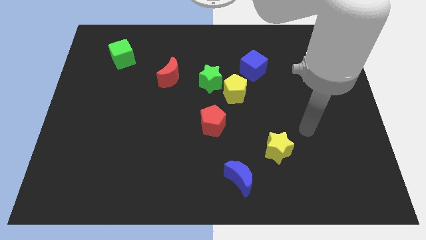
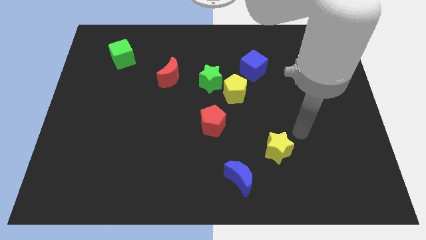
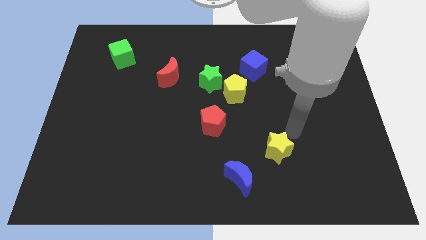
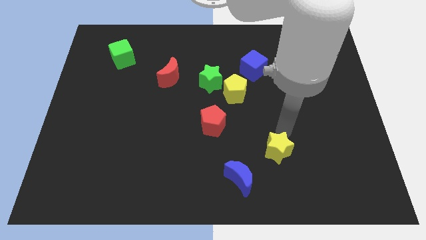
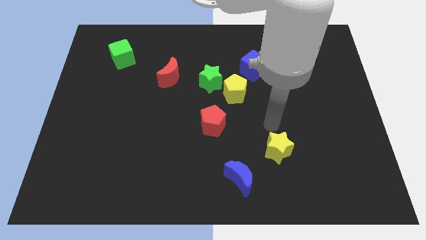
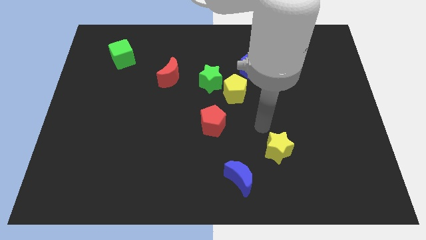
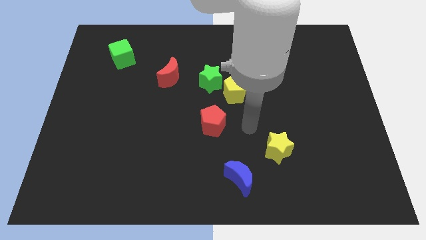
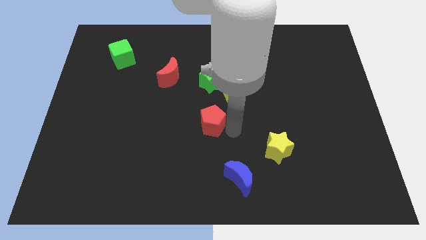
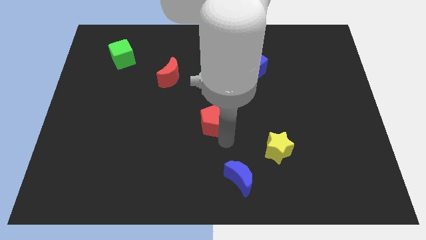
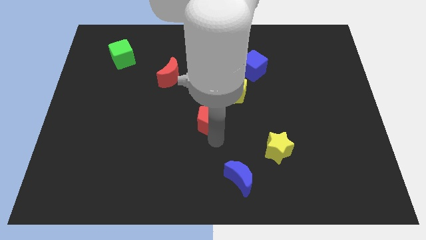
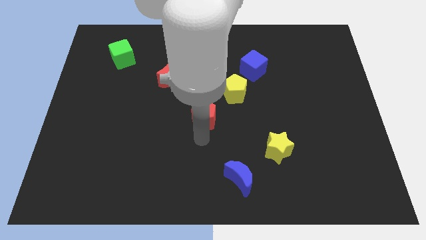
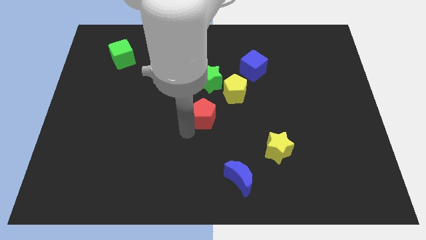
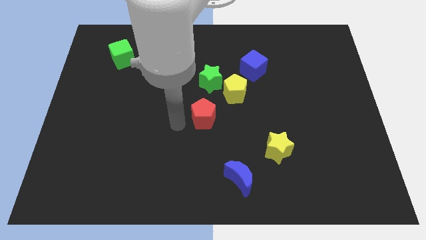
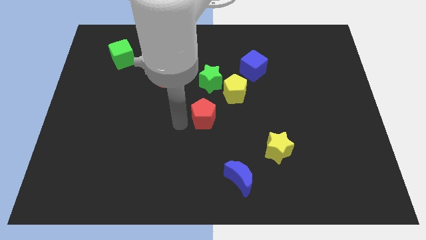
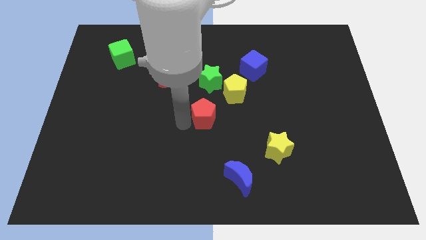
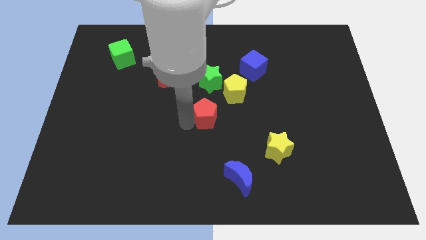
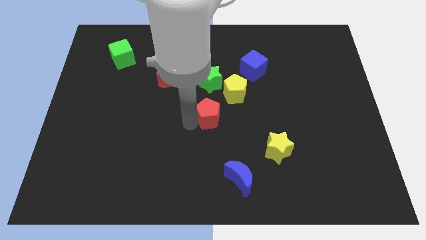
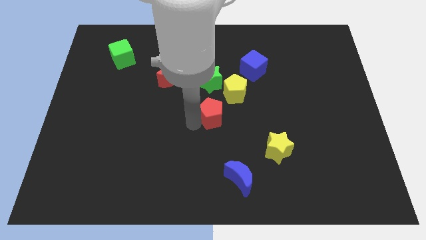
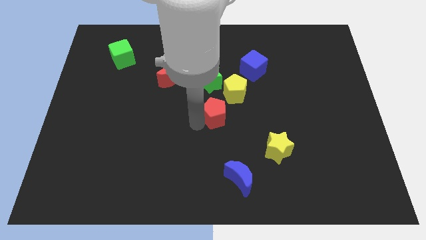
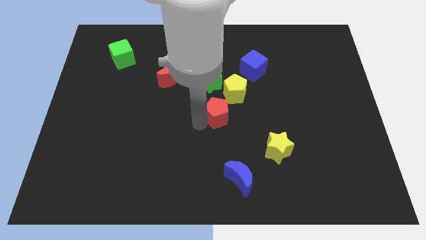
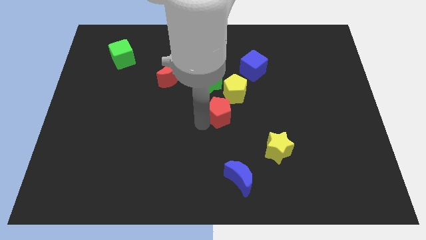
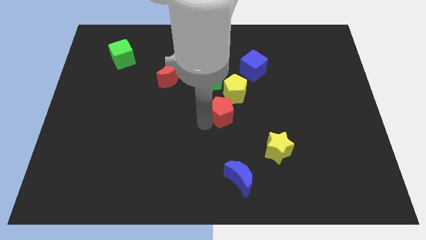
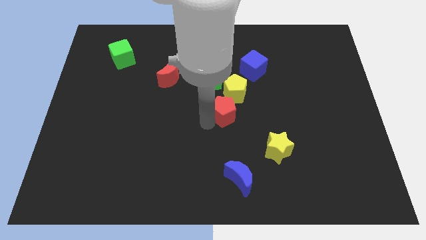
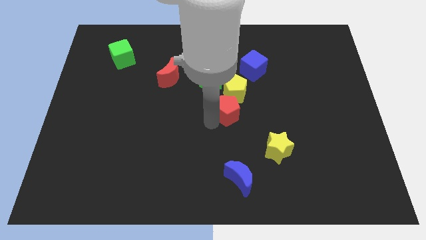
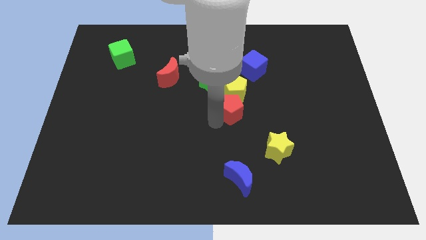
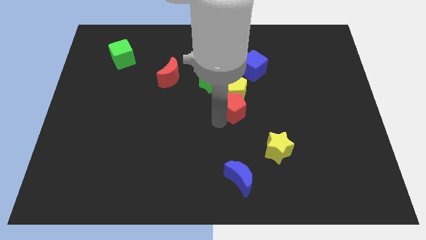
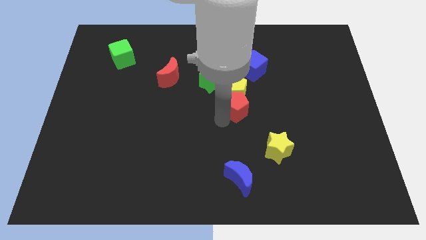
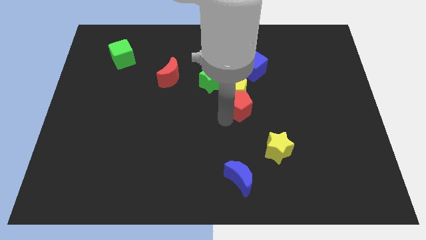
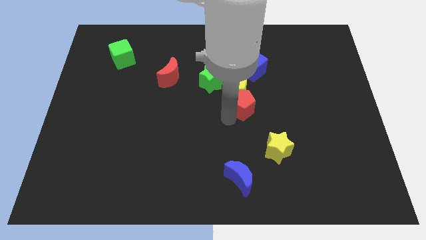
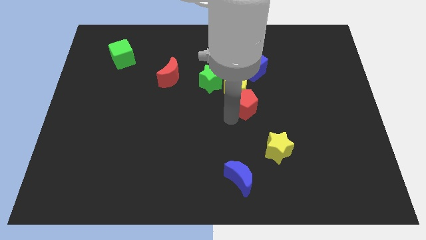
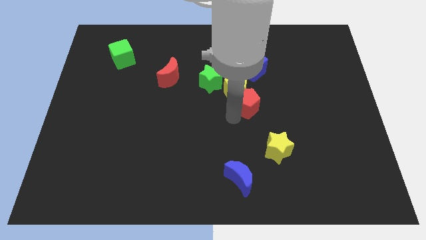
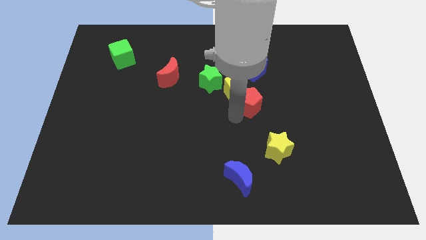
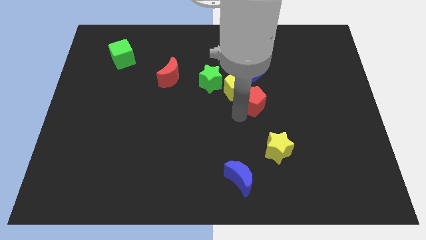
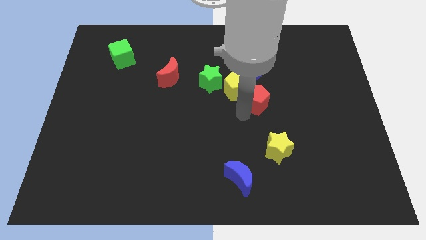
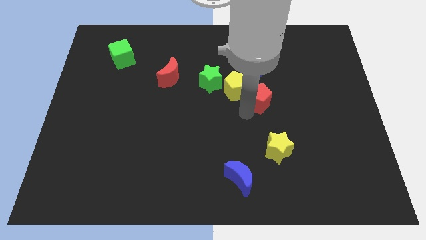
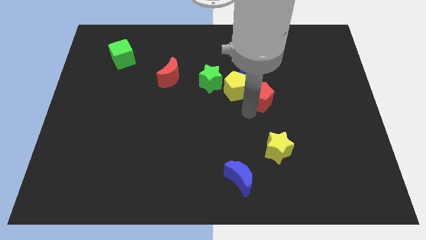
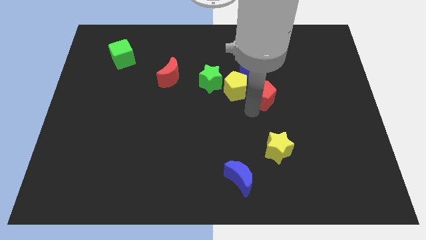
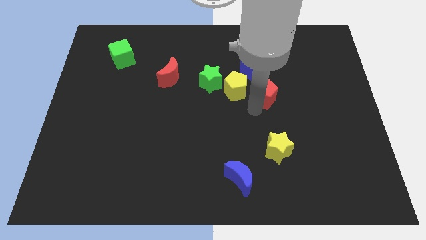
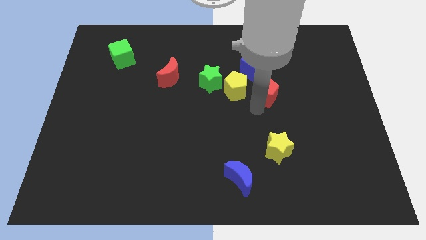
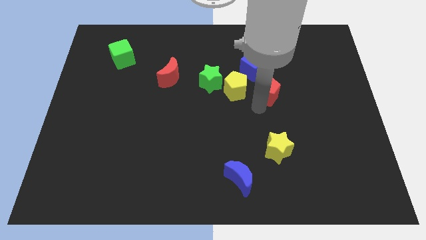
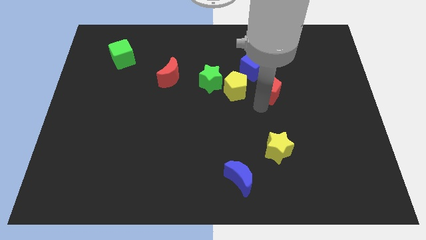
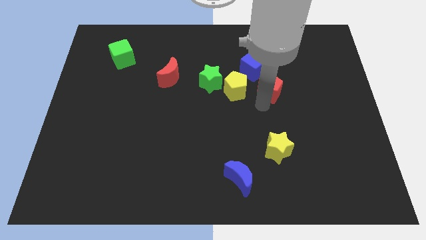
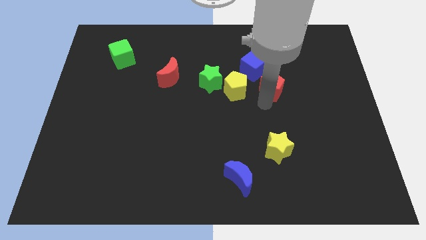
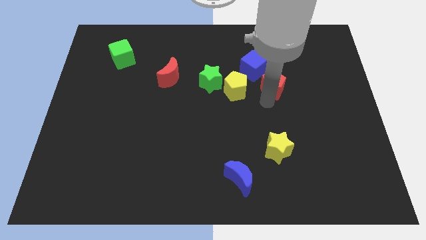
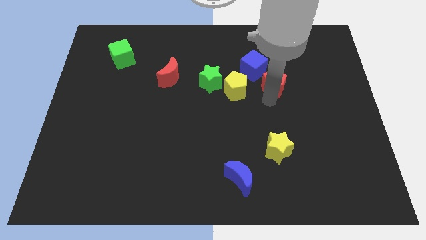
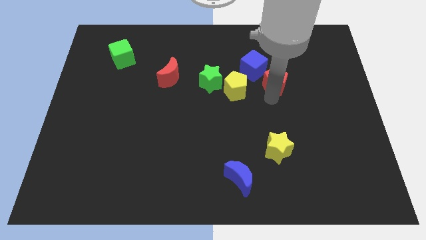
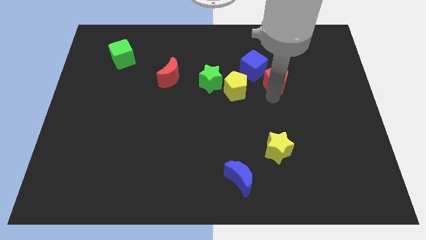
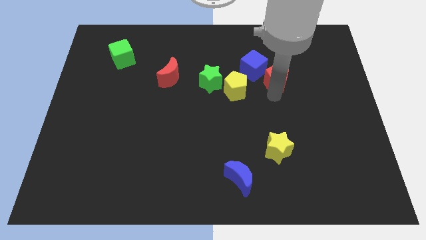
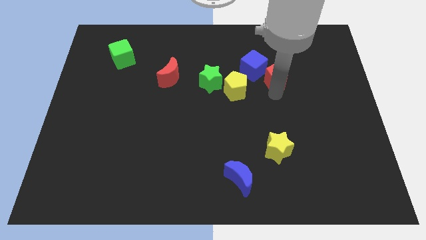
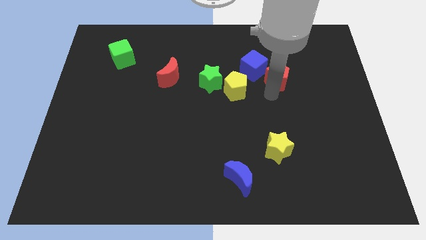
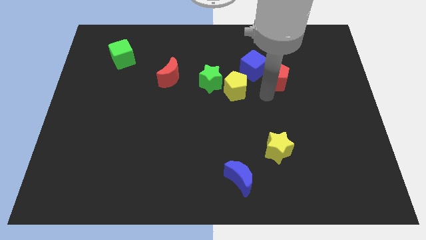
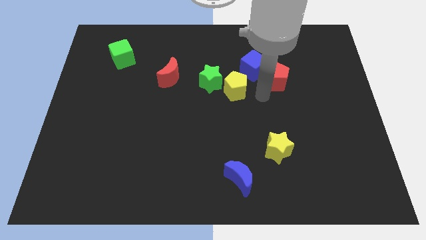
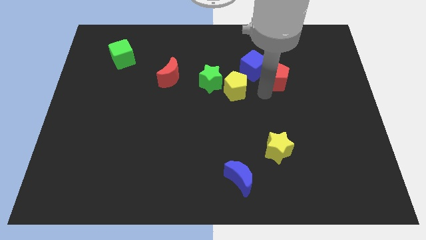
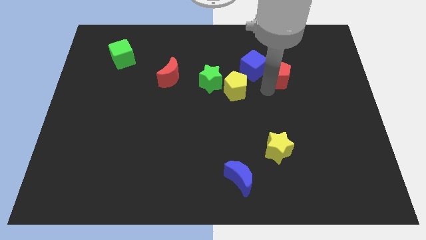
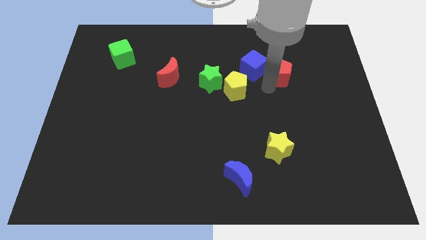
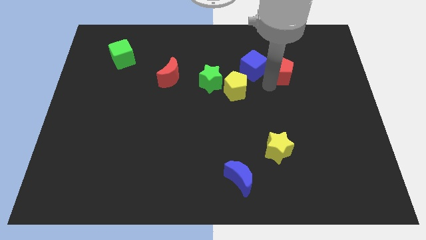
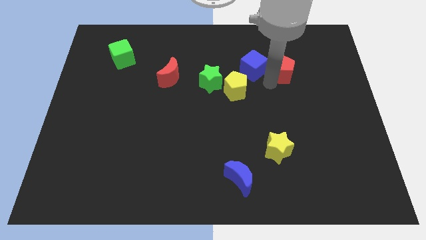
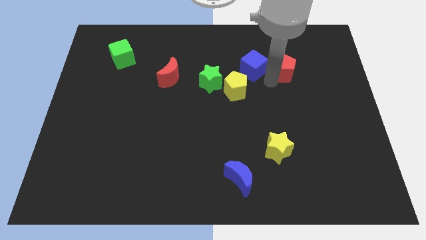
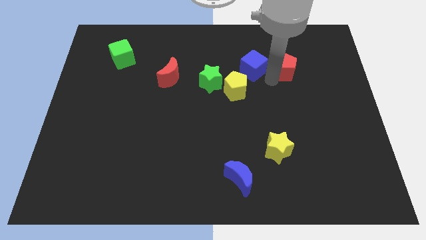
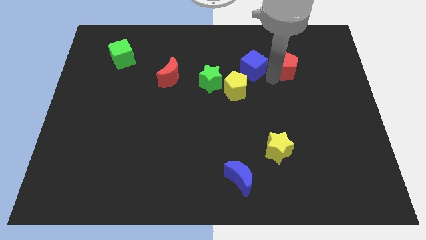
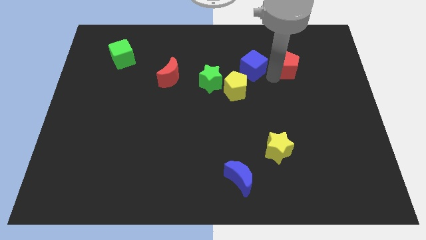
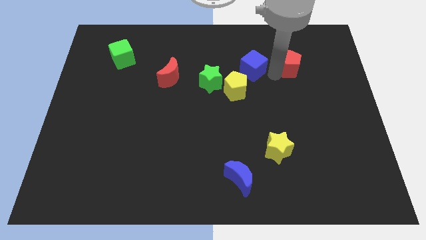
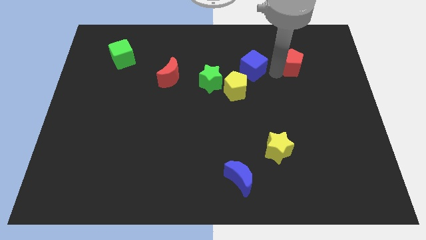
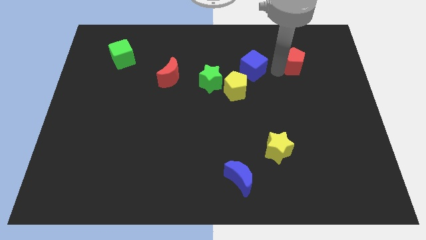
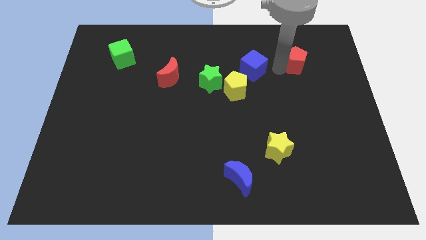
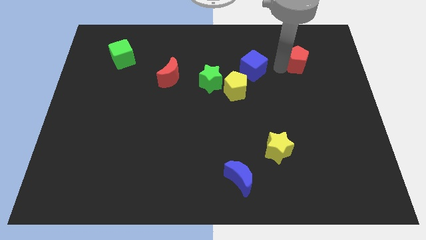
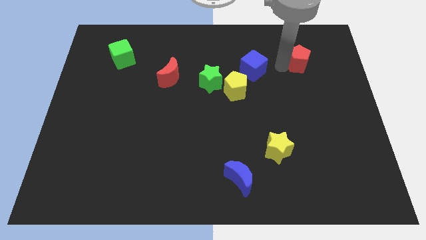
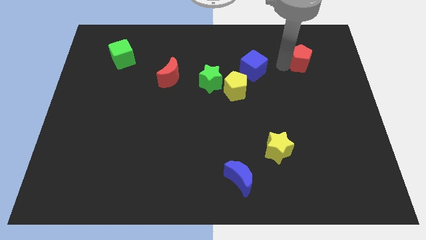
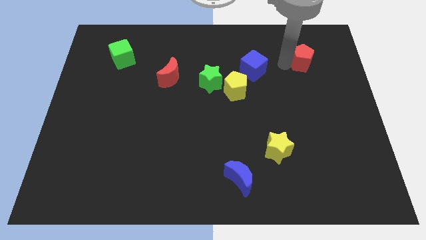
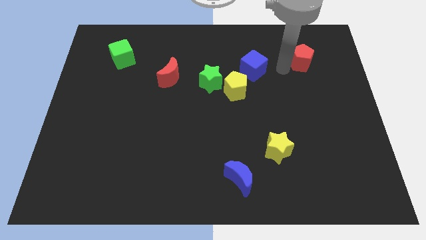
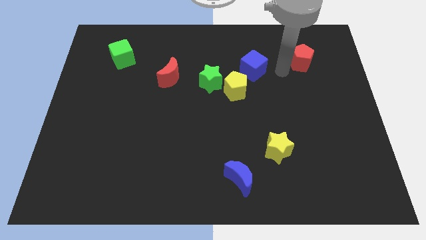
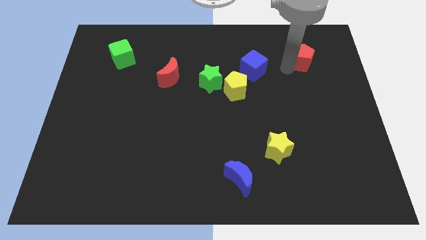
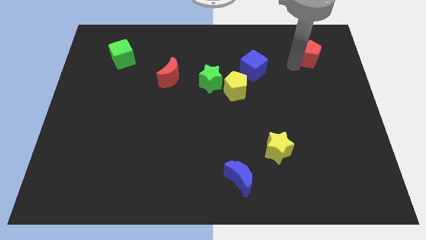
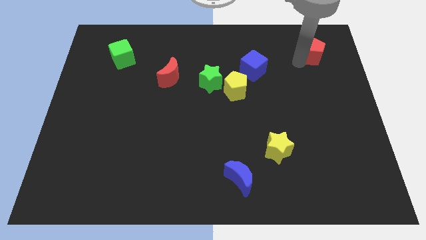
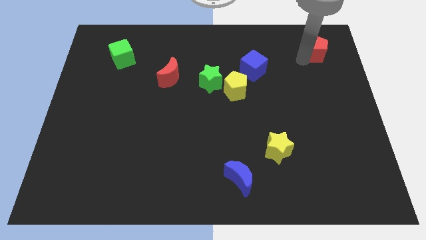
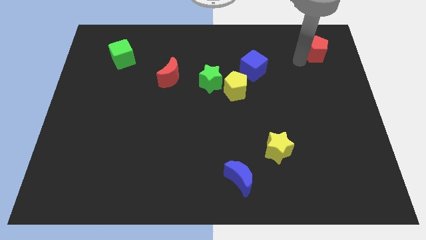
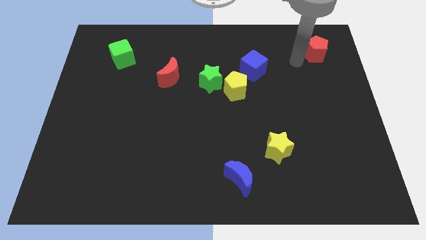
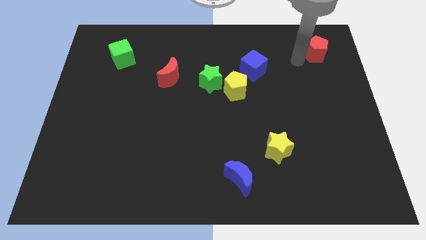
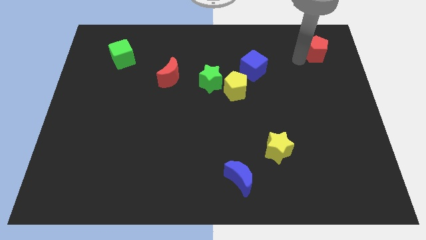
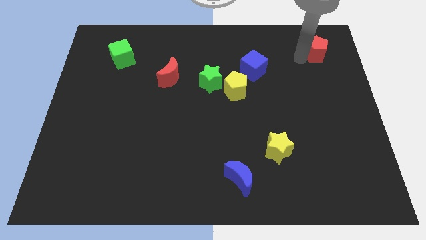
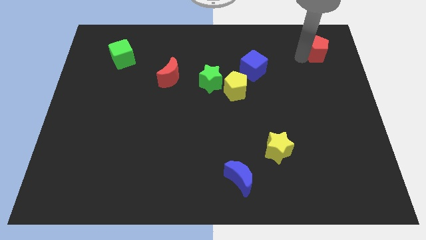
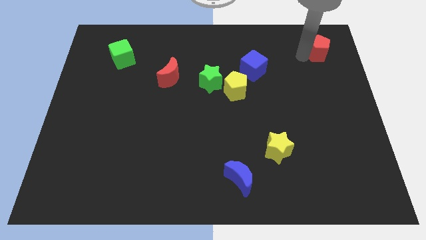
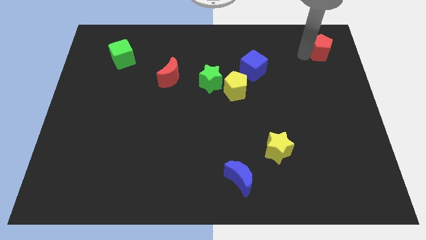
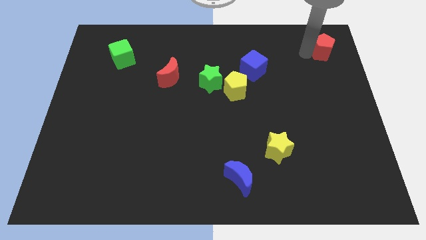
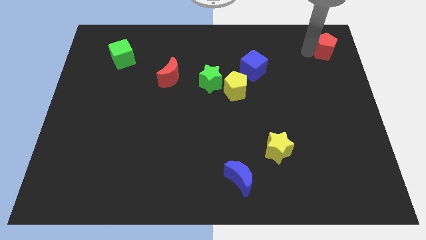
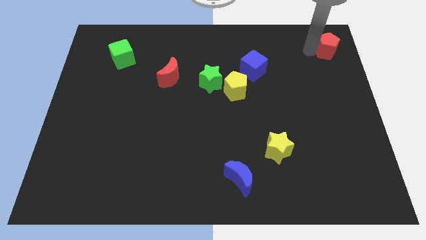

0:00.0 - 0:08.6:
push the red pentagon to the top right
